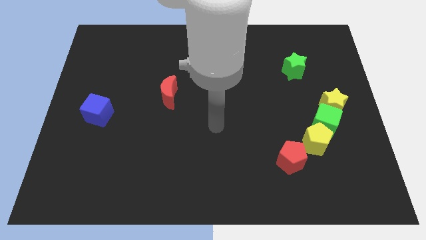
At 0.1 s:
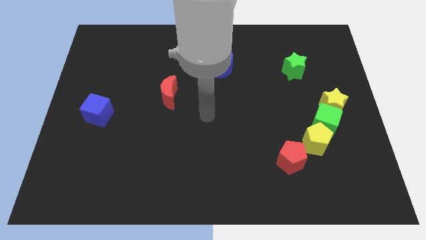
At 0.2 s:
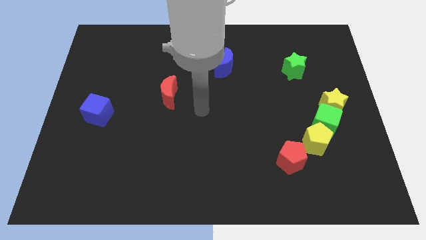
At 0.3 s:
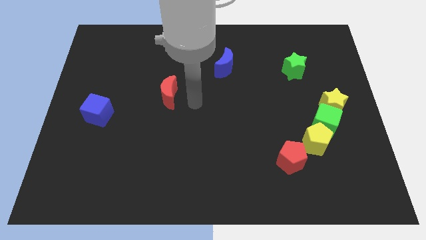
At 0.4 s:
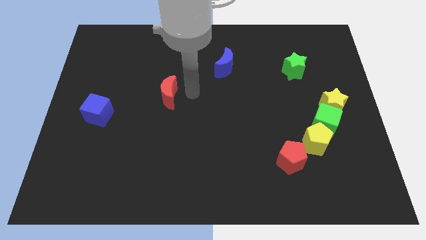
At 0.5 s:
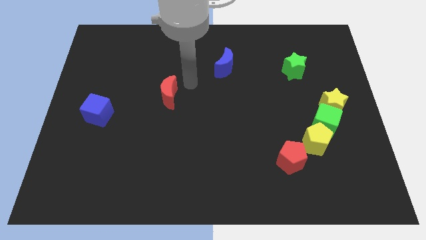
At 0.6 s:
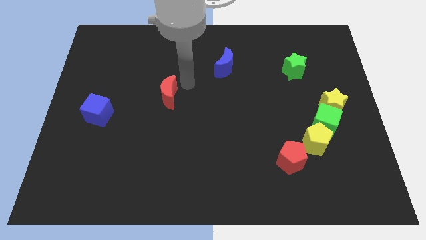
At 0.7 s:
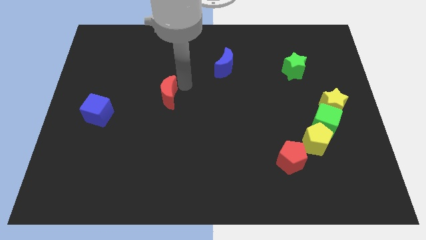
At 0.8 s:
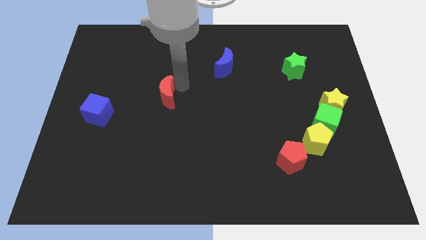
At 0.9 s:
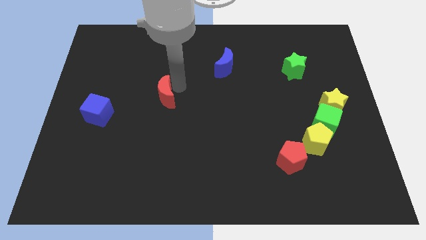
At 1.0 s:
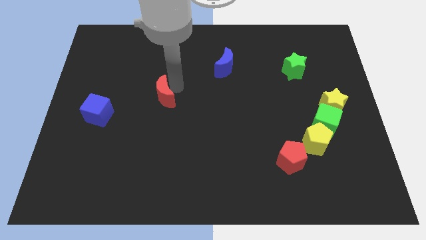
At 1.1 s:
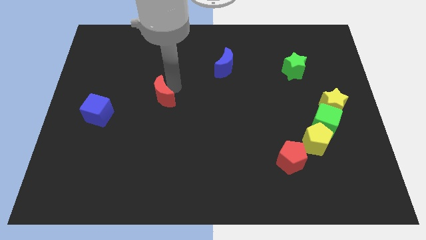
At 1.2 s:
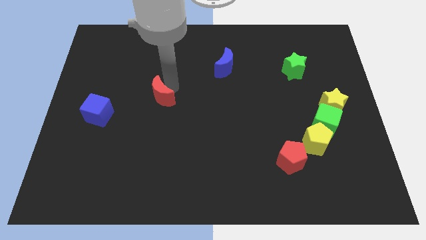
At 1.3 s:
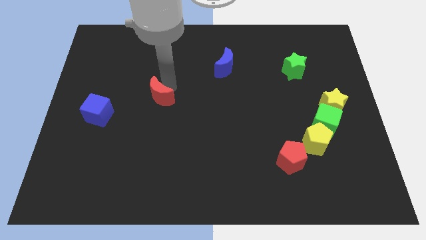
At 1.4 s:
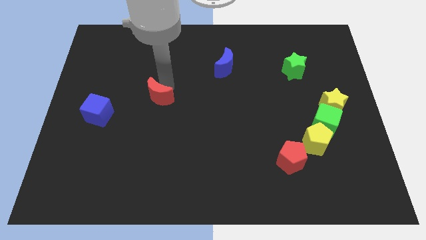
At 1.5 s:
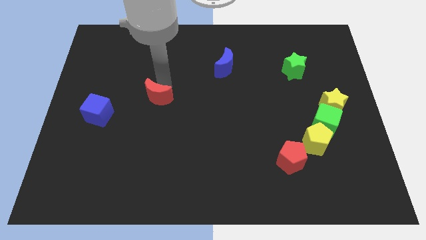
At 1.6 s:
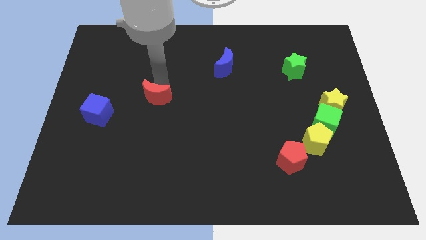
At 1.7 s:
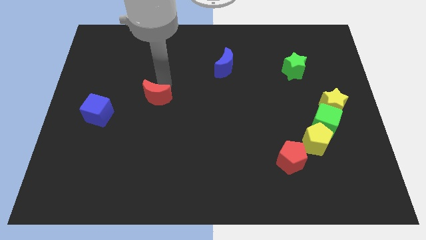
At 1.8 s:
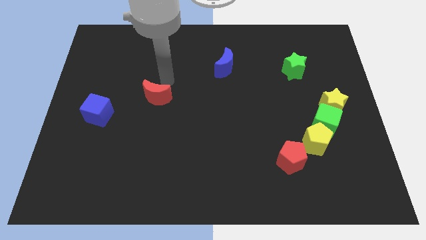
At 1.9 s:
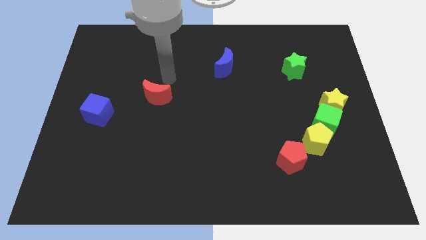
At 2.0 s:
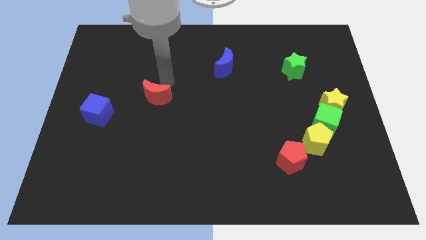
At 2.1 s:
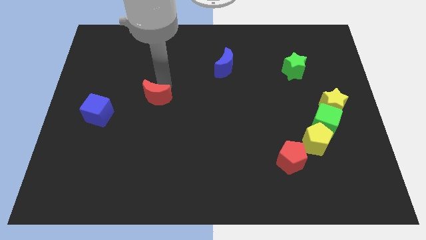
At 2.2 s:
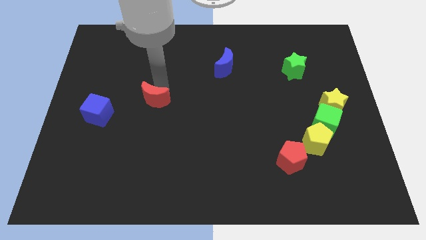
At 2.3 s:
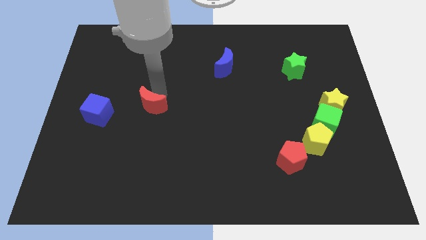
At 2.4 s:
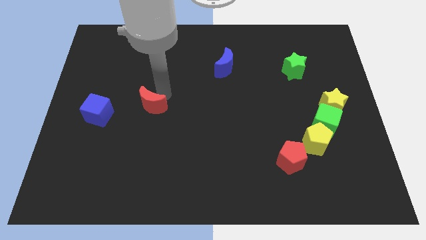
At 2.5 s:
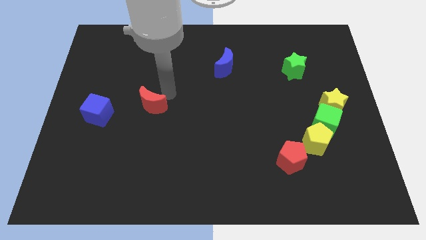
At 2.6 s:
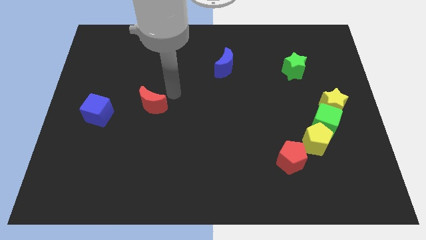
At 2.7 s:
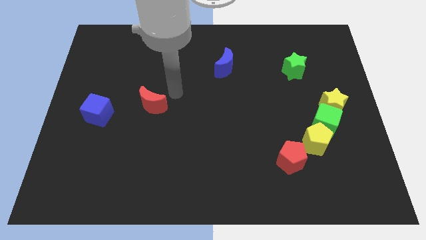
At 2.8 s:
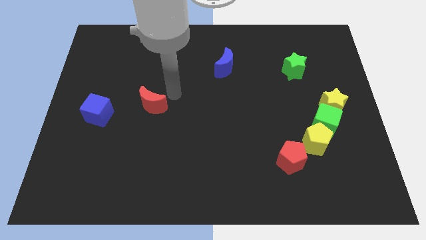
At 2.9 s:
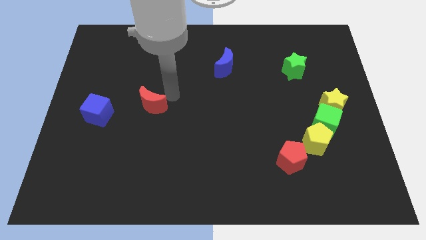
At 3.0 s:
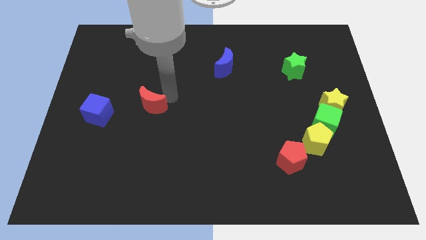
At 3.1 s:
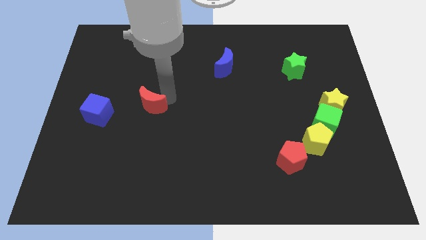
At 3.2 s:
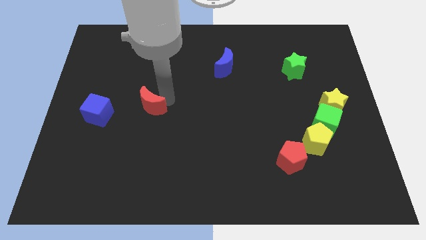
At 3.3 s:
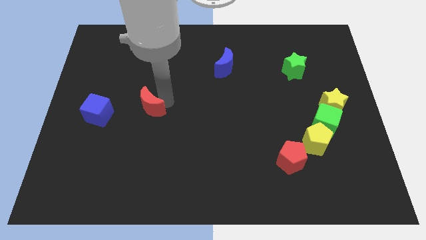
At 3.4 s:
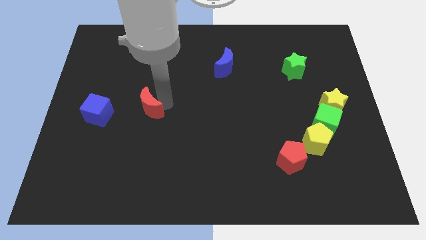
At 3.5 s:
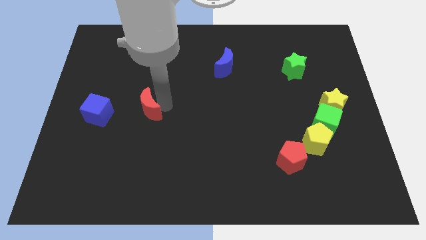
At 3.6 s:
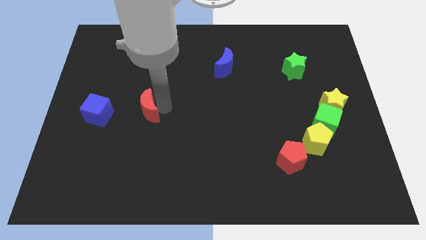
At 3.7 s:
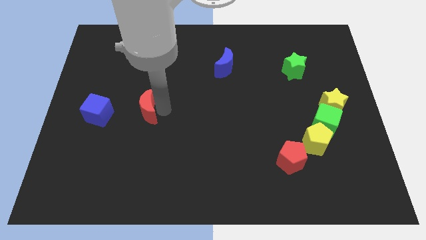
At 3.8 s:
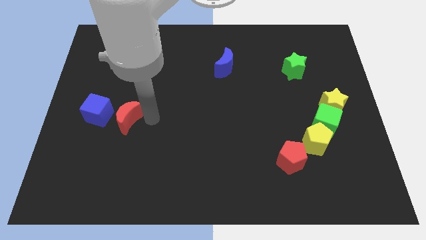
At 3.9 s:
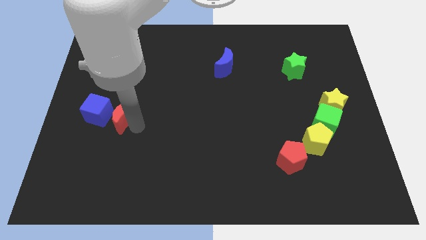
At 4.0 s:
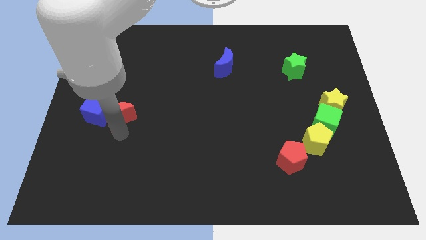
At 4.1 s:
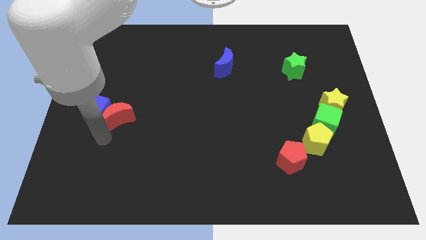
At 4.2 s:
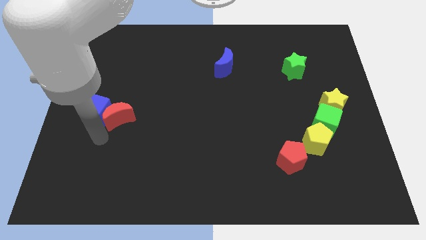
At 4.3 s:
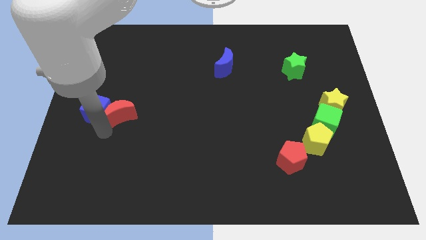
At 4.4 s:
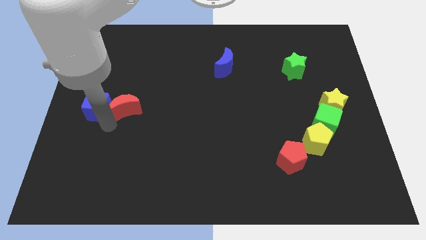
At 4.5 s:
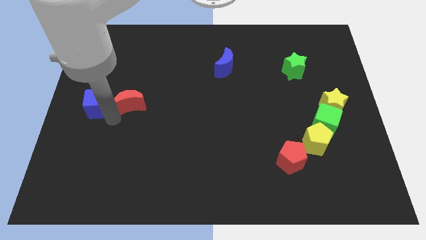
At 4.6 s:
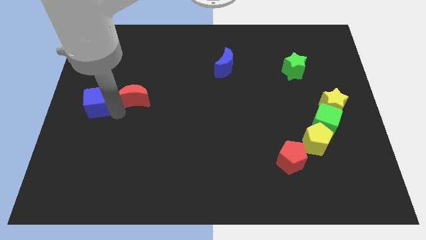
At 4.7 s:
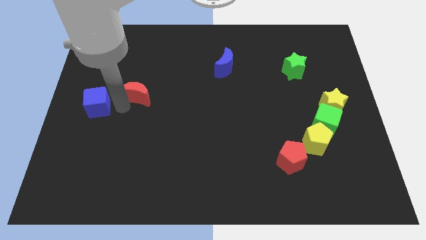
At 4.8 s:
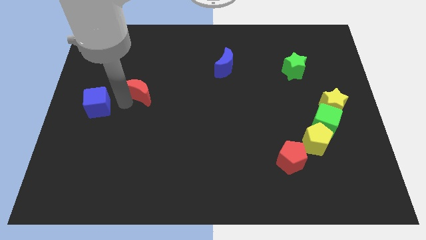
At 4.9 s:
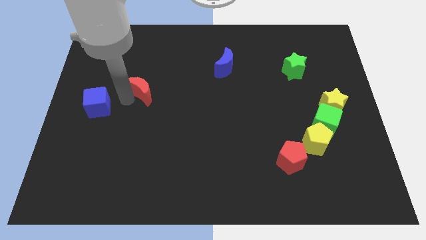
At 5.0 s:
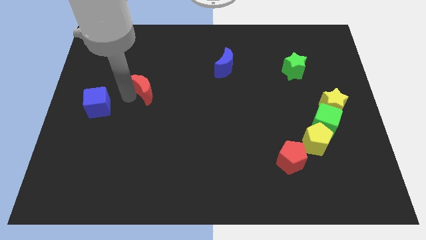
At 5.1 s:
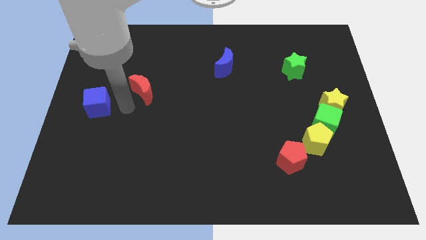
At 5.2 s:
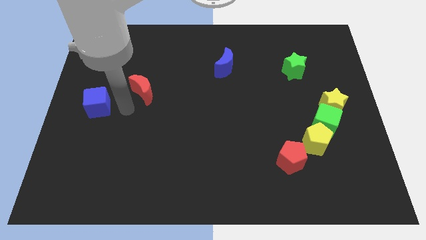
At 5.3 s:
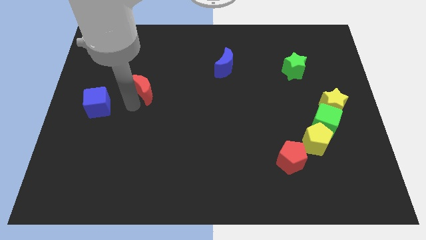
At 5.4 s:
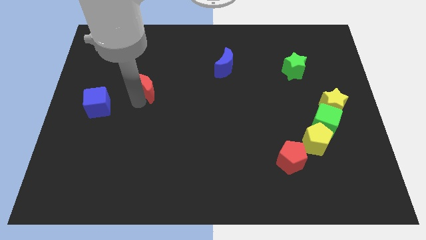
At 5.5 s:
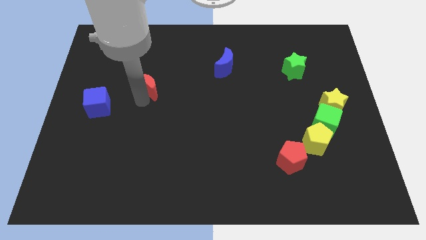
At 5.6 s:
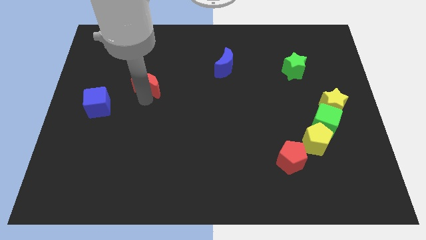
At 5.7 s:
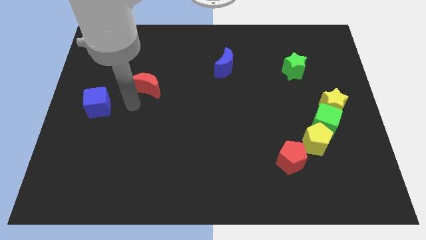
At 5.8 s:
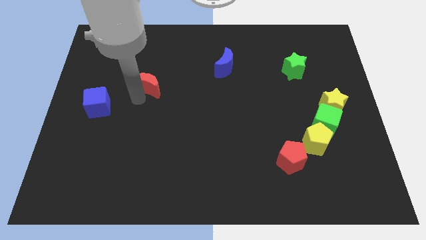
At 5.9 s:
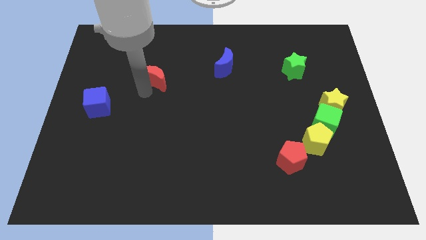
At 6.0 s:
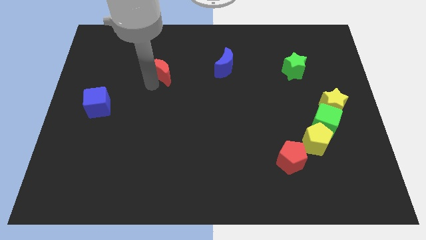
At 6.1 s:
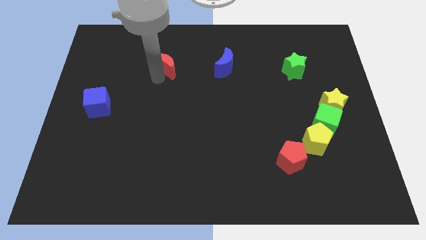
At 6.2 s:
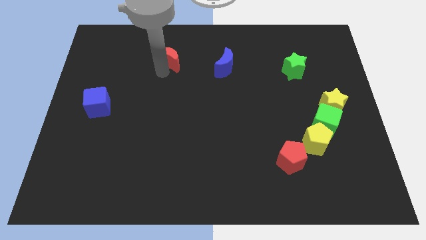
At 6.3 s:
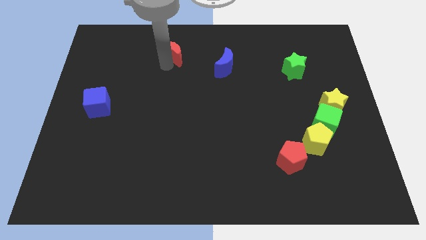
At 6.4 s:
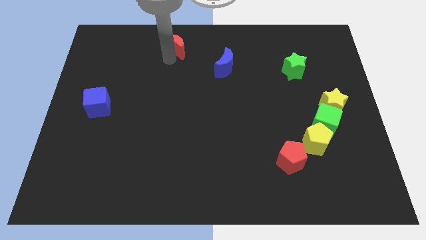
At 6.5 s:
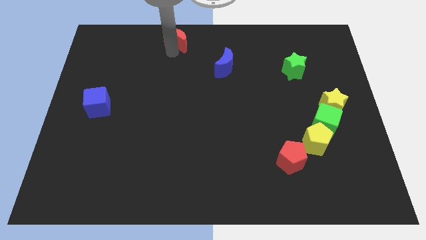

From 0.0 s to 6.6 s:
push the red moon to the top side
